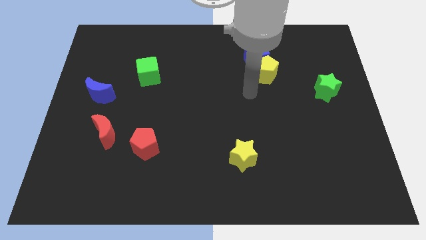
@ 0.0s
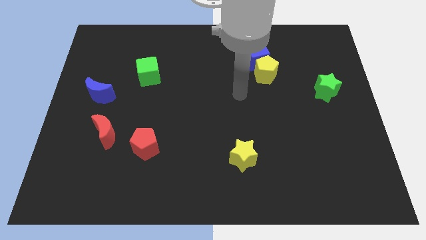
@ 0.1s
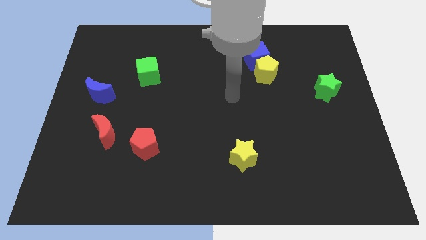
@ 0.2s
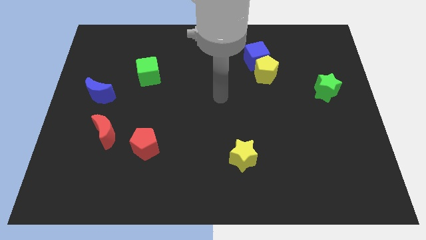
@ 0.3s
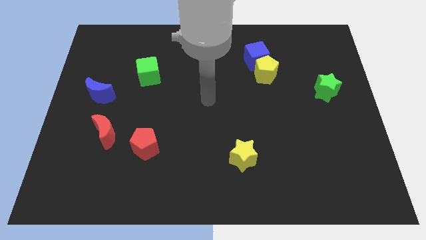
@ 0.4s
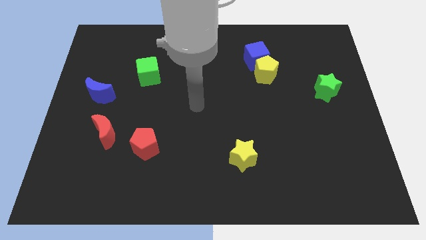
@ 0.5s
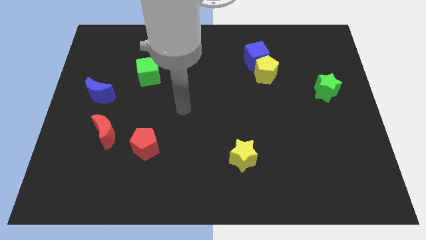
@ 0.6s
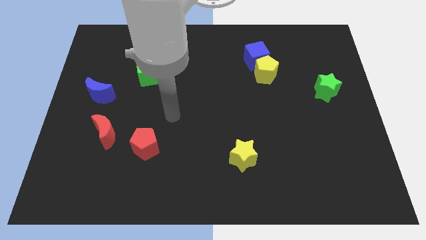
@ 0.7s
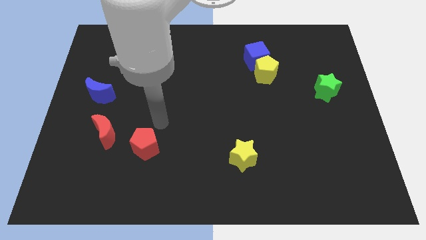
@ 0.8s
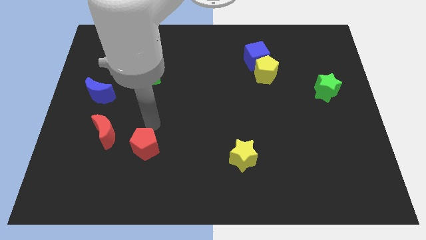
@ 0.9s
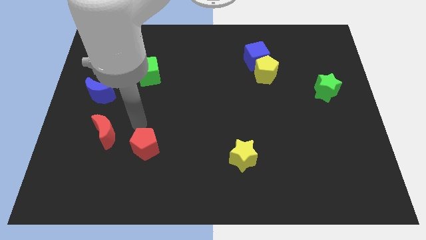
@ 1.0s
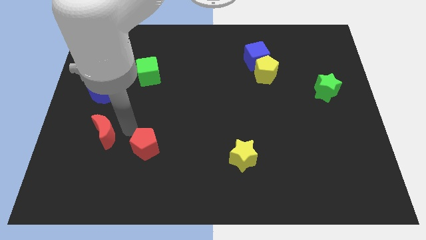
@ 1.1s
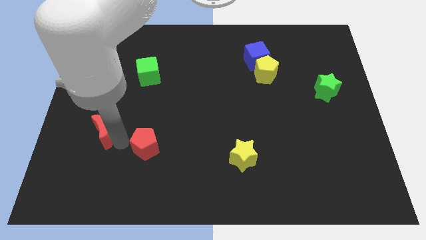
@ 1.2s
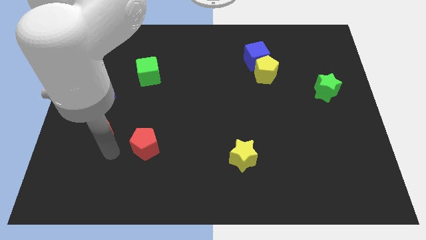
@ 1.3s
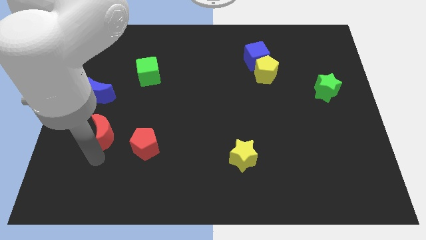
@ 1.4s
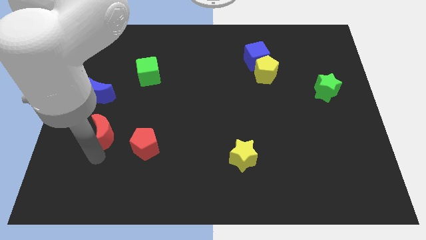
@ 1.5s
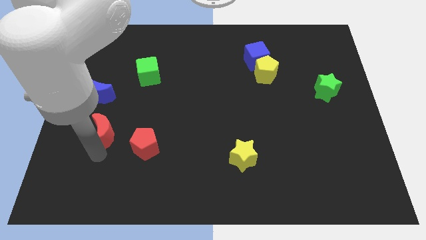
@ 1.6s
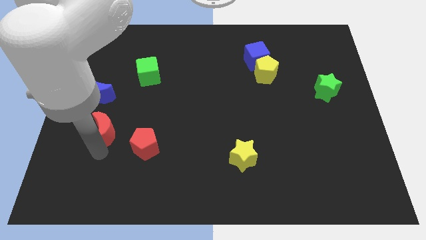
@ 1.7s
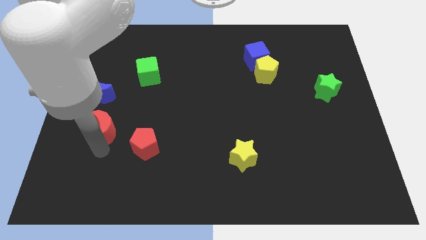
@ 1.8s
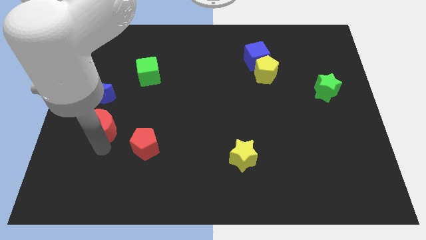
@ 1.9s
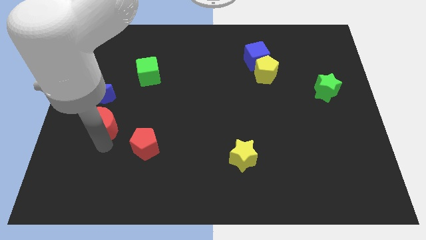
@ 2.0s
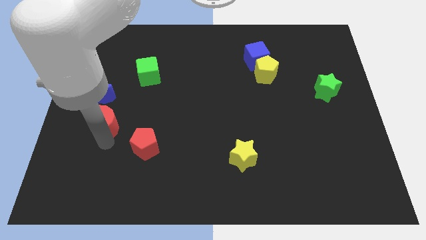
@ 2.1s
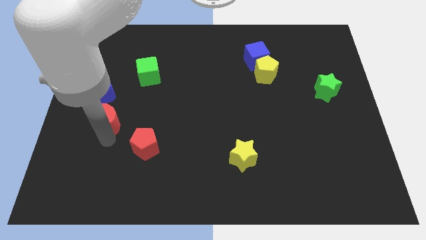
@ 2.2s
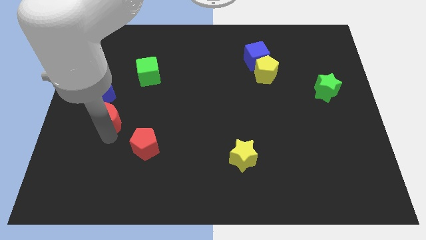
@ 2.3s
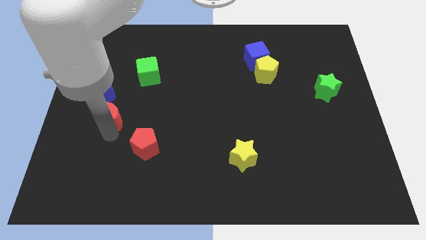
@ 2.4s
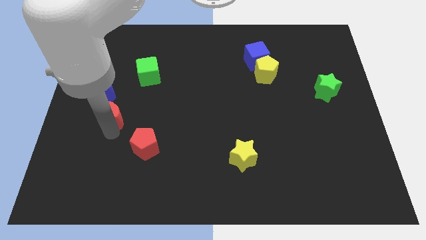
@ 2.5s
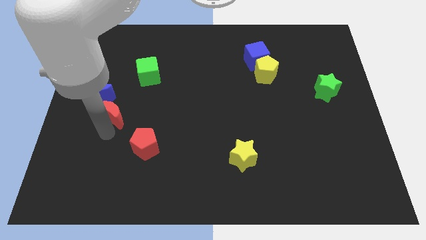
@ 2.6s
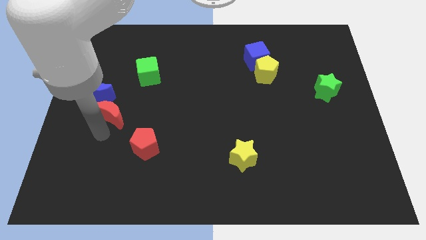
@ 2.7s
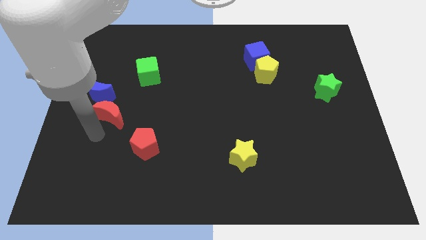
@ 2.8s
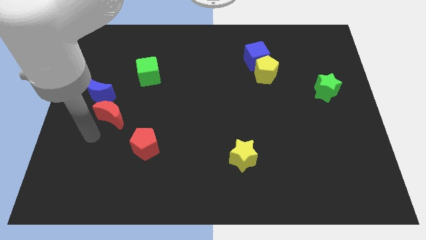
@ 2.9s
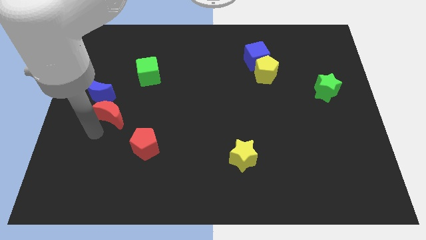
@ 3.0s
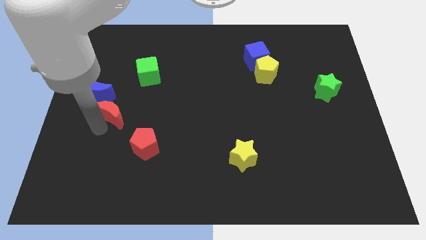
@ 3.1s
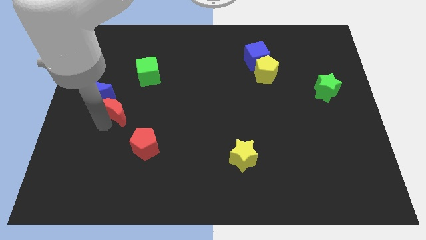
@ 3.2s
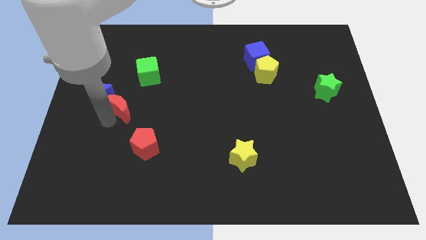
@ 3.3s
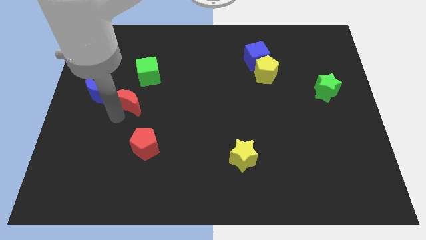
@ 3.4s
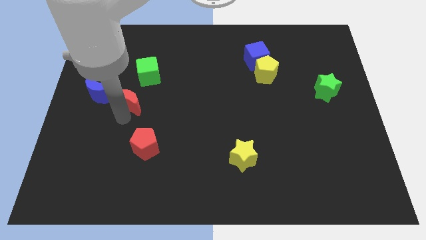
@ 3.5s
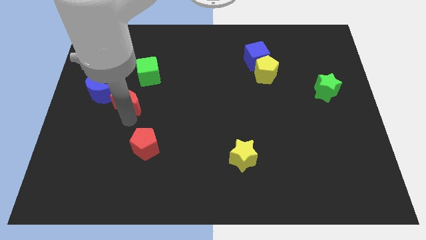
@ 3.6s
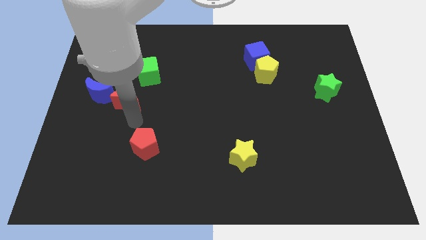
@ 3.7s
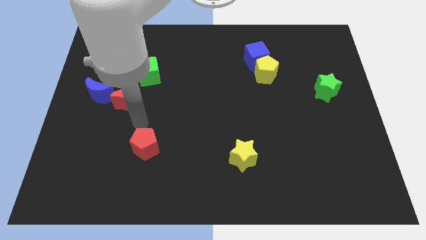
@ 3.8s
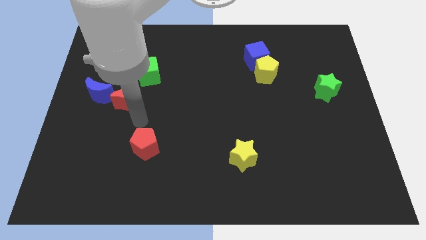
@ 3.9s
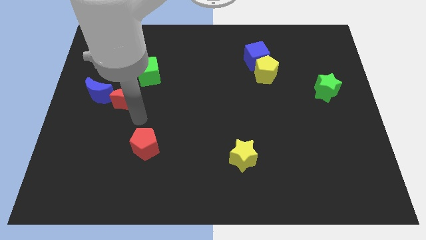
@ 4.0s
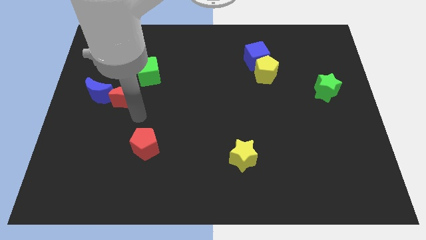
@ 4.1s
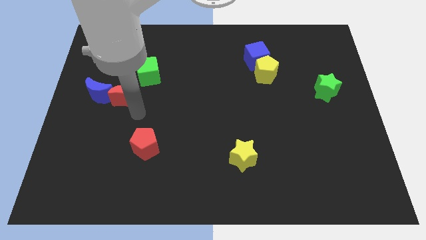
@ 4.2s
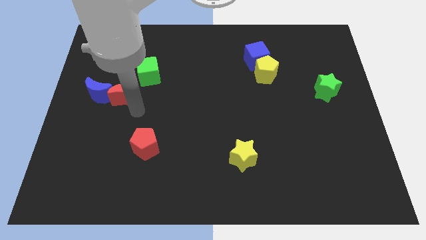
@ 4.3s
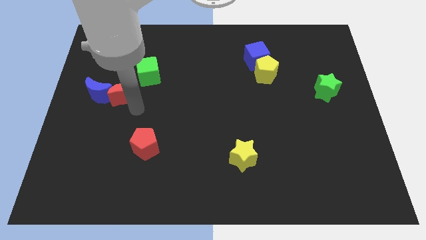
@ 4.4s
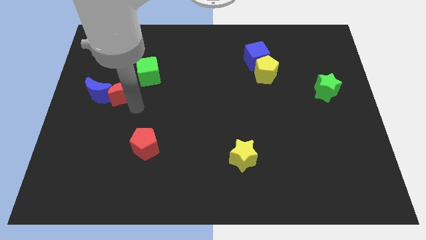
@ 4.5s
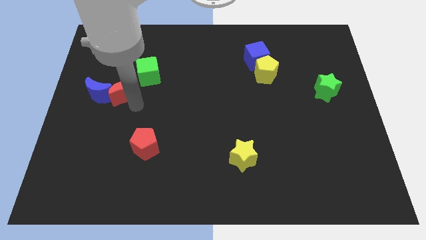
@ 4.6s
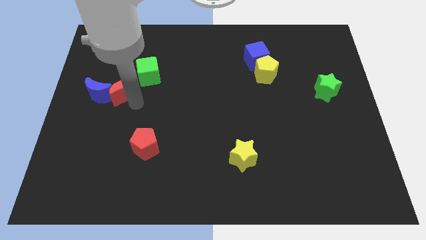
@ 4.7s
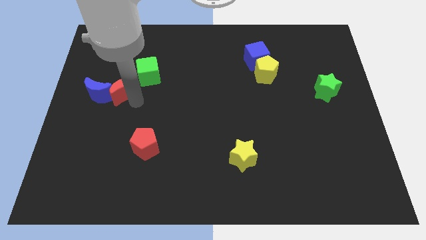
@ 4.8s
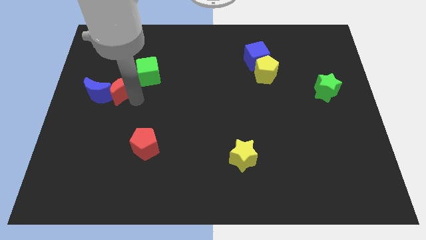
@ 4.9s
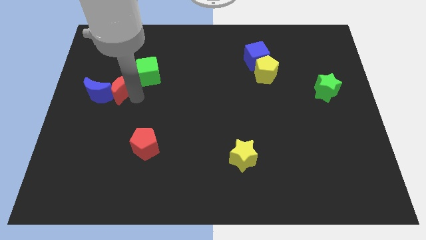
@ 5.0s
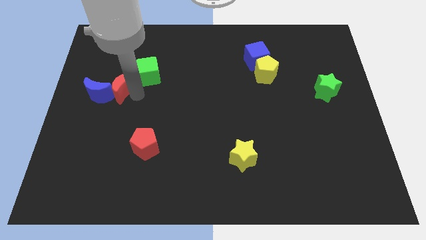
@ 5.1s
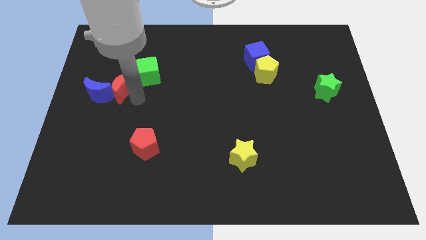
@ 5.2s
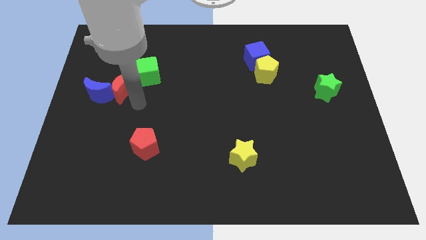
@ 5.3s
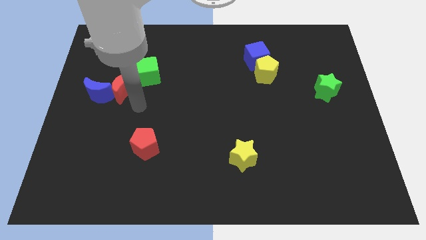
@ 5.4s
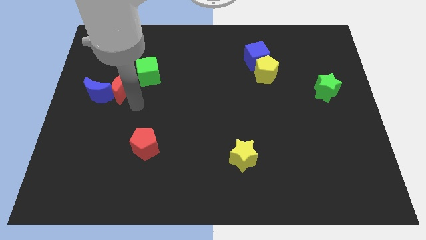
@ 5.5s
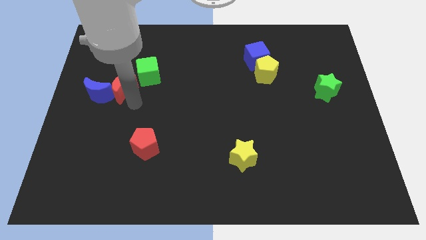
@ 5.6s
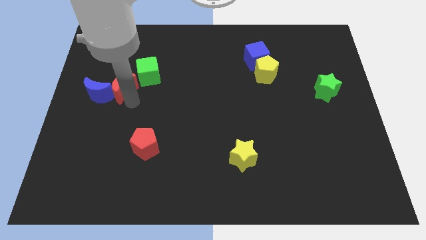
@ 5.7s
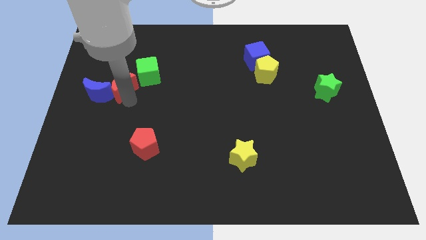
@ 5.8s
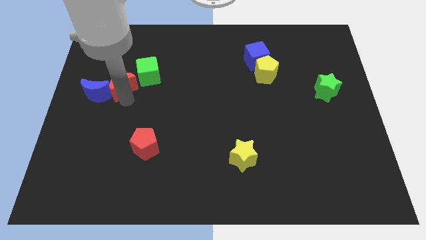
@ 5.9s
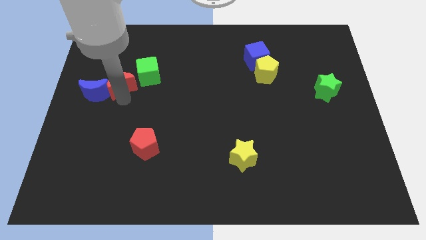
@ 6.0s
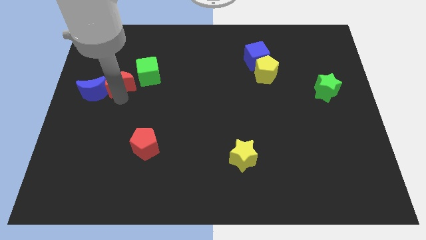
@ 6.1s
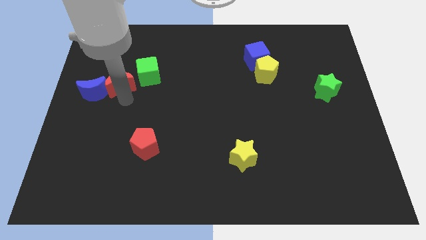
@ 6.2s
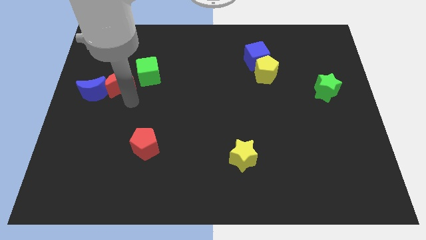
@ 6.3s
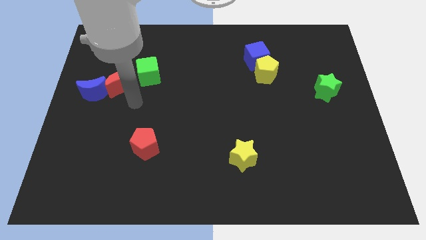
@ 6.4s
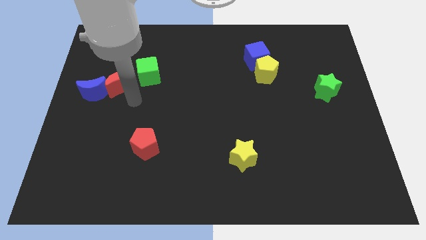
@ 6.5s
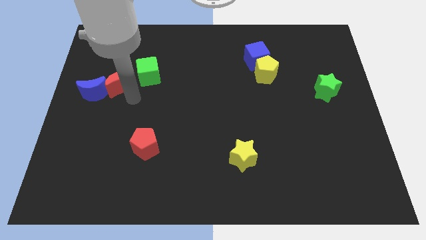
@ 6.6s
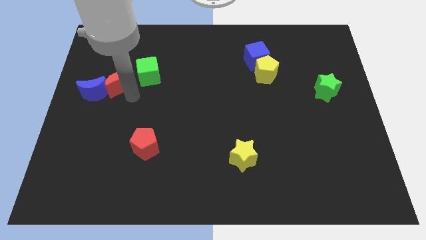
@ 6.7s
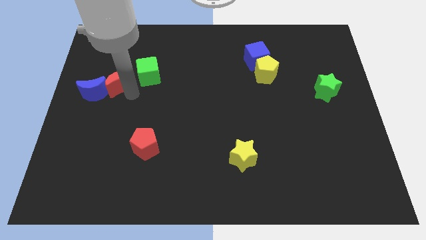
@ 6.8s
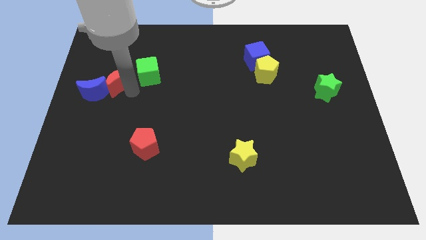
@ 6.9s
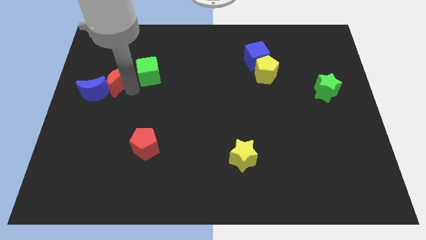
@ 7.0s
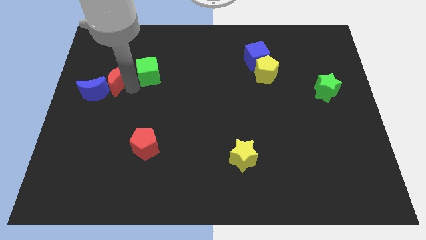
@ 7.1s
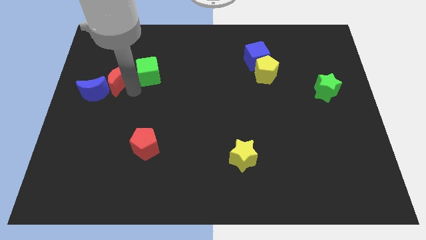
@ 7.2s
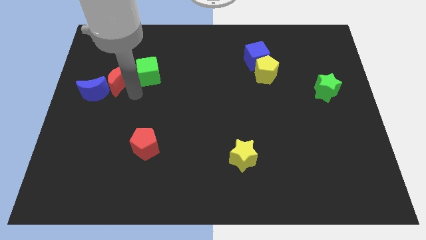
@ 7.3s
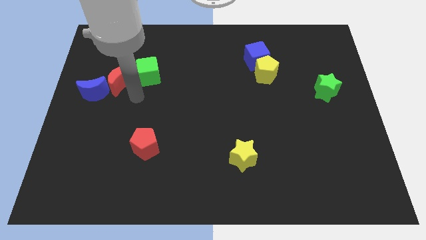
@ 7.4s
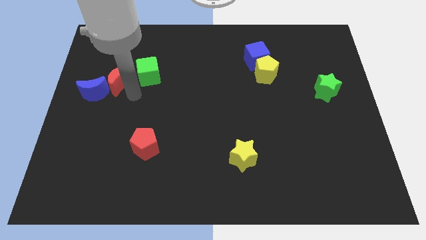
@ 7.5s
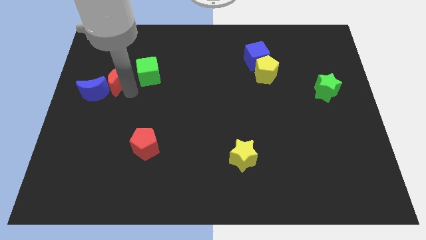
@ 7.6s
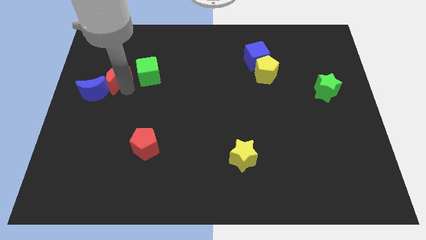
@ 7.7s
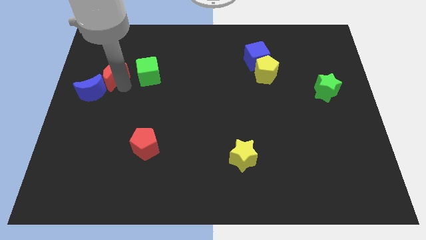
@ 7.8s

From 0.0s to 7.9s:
move the red moon to the top side of the blue moon
